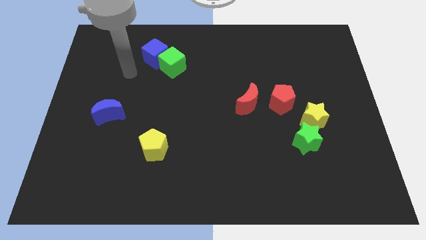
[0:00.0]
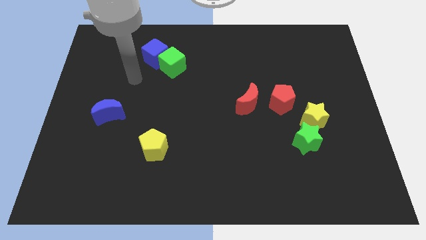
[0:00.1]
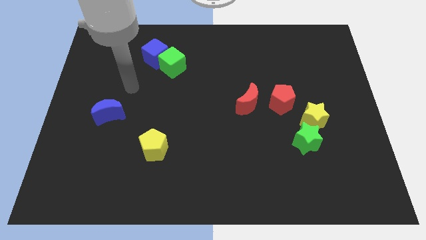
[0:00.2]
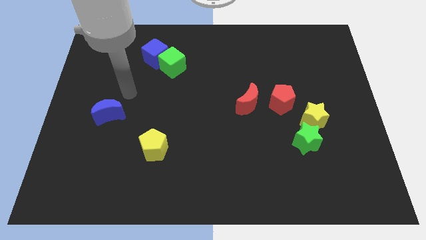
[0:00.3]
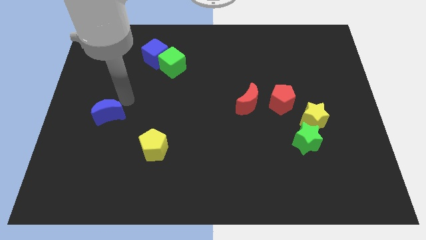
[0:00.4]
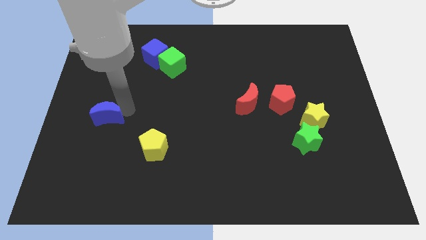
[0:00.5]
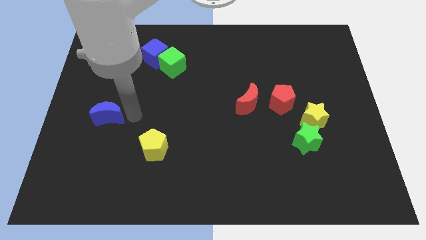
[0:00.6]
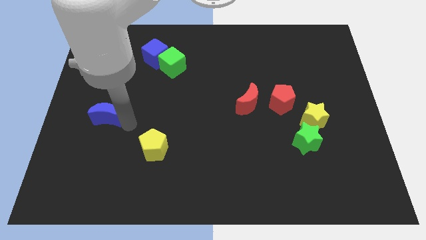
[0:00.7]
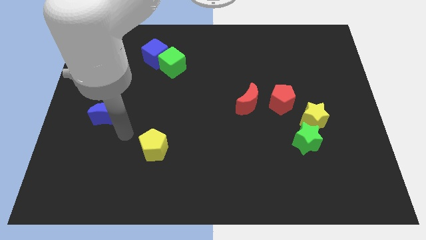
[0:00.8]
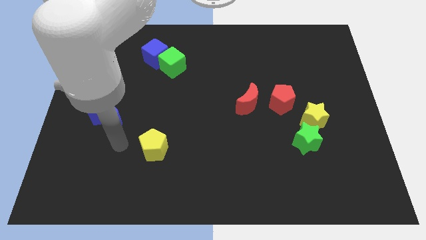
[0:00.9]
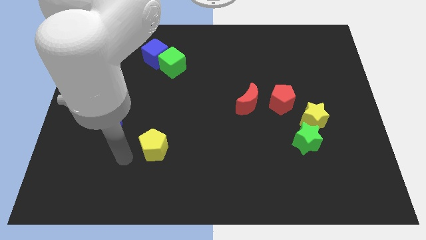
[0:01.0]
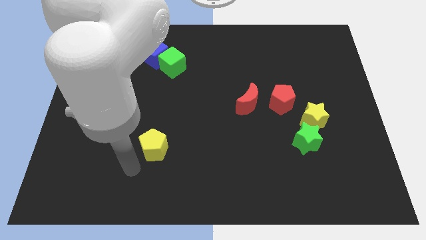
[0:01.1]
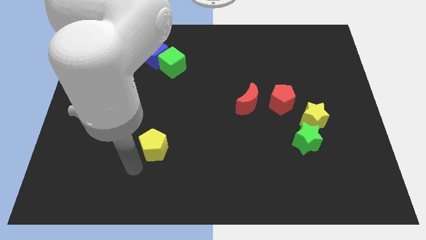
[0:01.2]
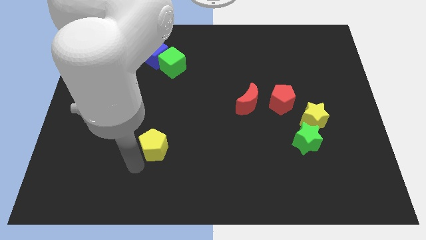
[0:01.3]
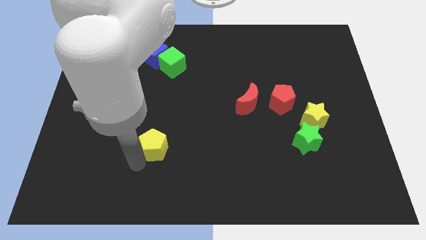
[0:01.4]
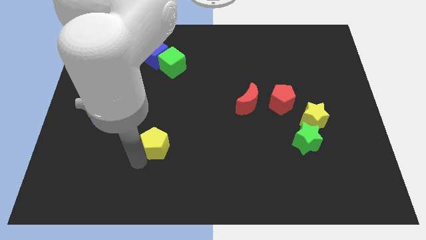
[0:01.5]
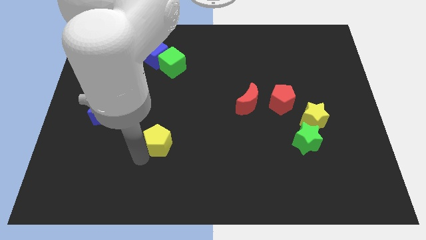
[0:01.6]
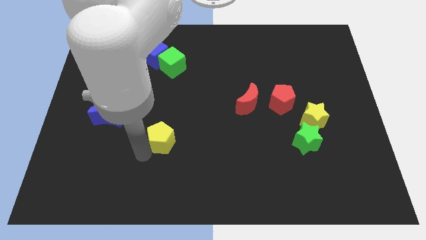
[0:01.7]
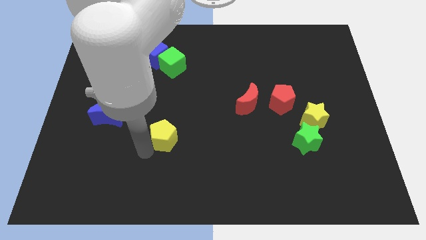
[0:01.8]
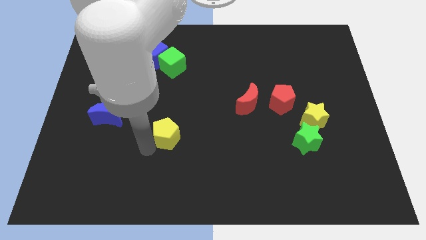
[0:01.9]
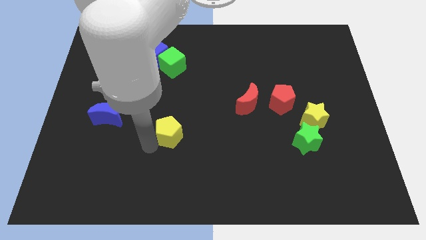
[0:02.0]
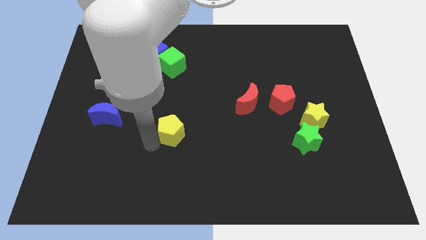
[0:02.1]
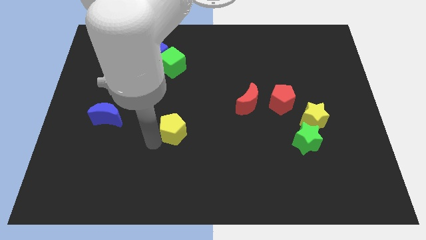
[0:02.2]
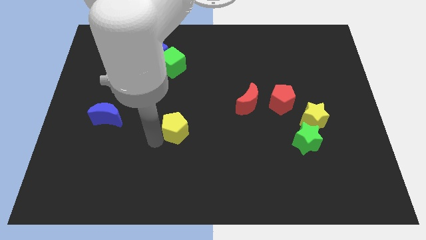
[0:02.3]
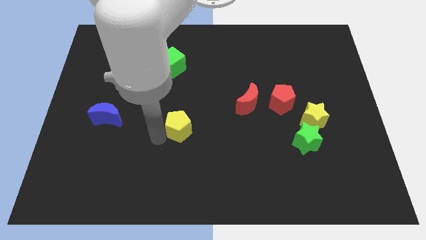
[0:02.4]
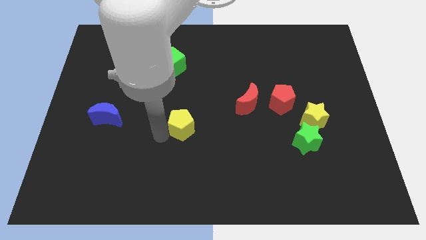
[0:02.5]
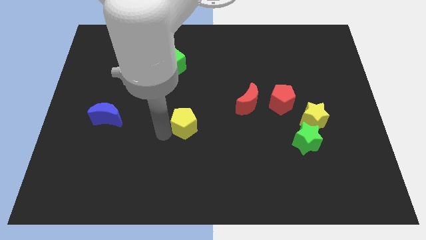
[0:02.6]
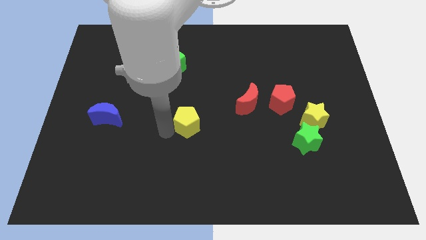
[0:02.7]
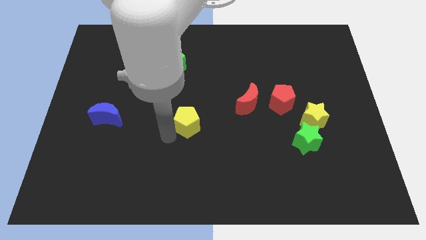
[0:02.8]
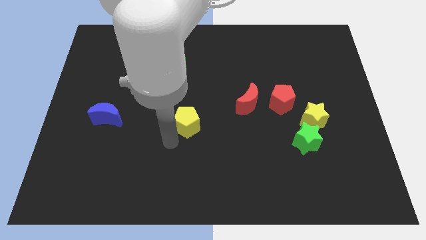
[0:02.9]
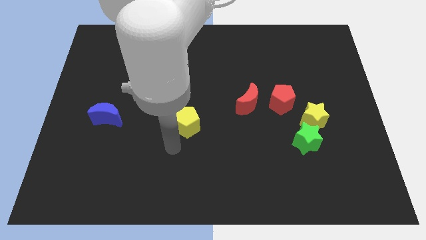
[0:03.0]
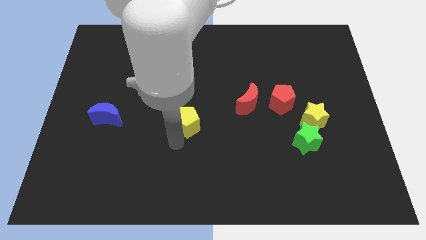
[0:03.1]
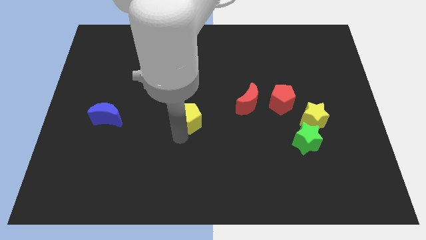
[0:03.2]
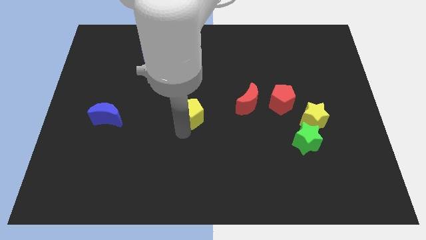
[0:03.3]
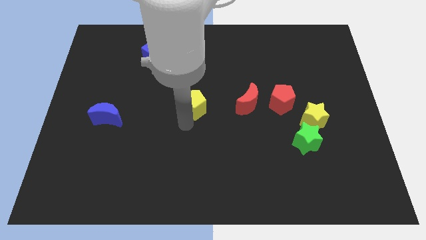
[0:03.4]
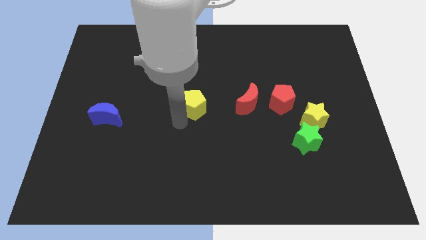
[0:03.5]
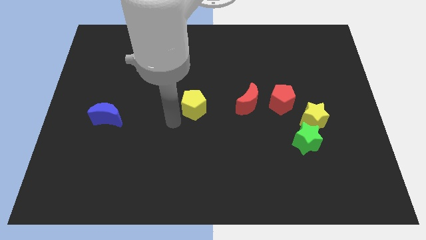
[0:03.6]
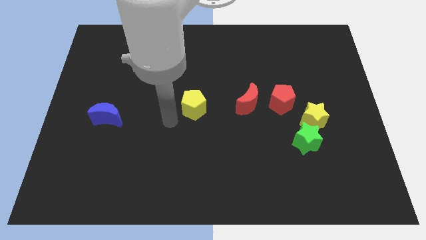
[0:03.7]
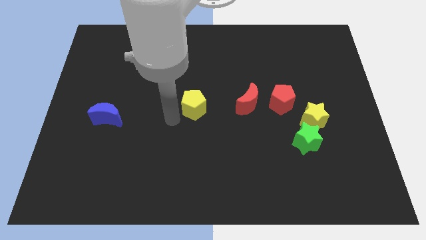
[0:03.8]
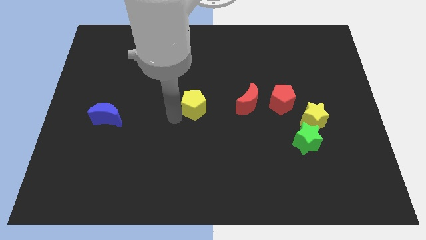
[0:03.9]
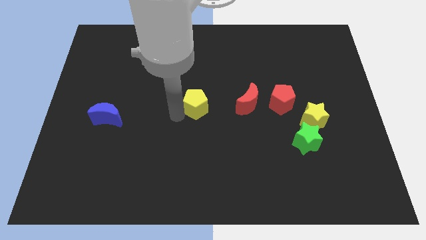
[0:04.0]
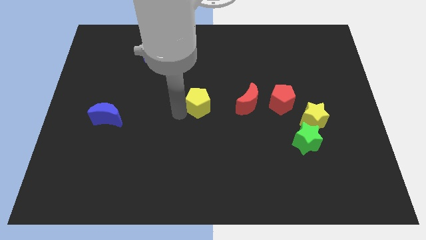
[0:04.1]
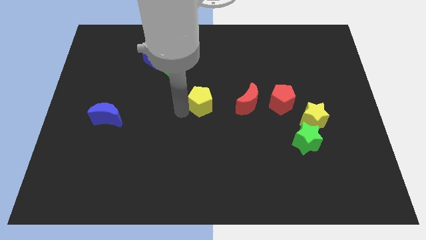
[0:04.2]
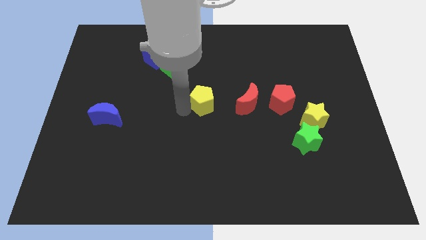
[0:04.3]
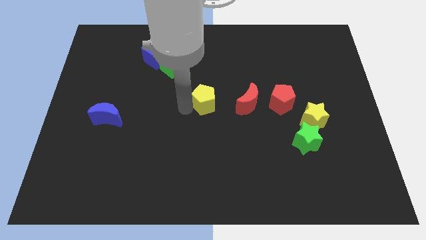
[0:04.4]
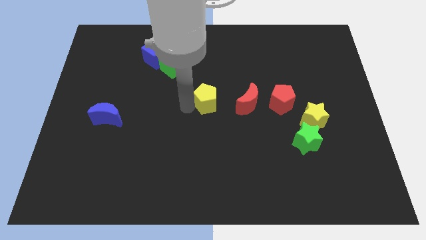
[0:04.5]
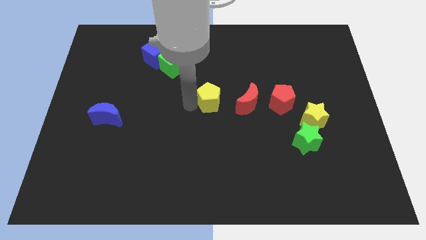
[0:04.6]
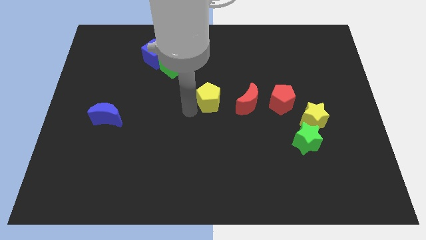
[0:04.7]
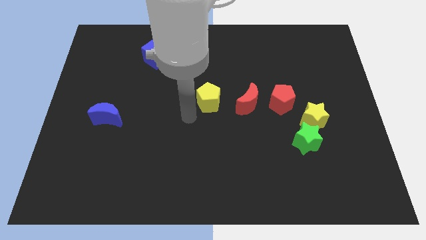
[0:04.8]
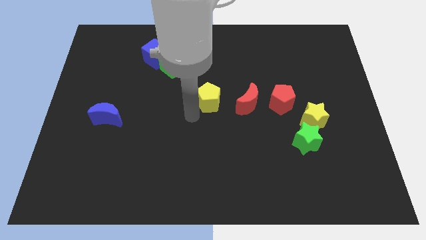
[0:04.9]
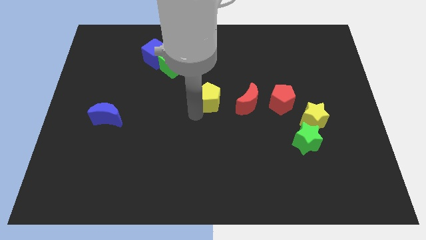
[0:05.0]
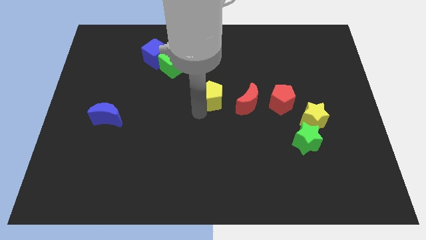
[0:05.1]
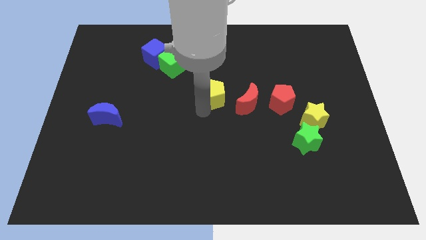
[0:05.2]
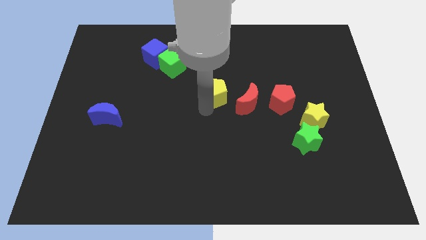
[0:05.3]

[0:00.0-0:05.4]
slide the yellow pentagon diagonally up and to the right

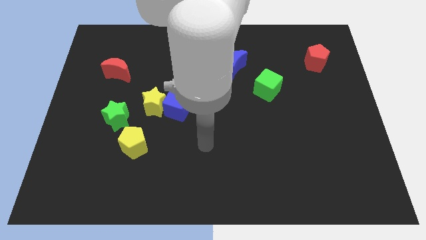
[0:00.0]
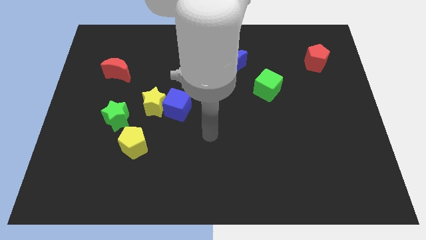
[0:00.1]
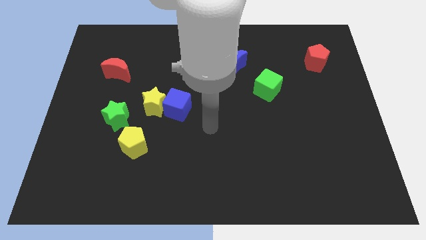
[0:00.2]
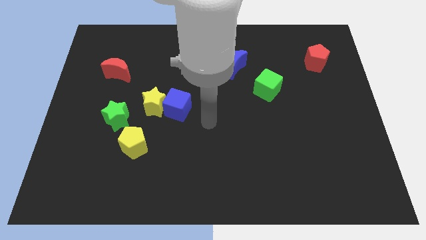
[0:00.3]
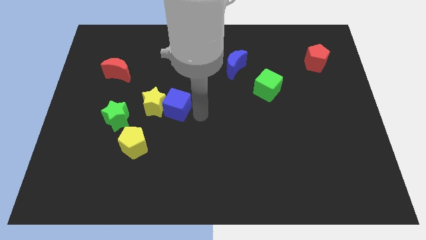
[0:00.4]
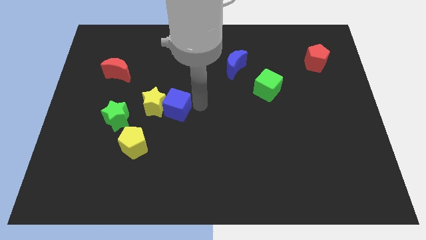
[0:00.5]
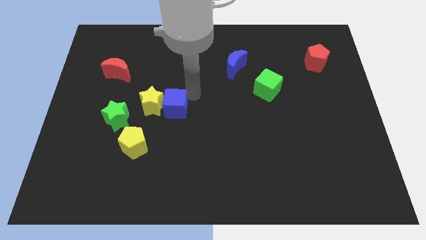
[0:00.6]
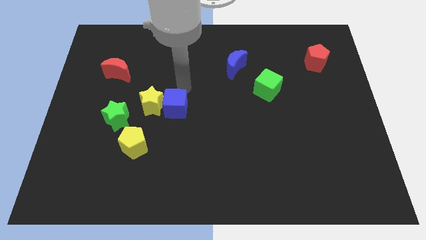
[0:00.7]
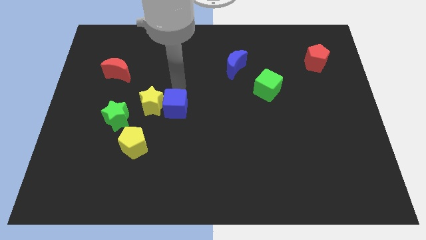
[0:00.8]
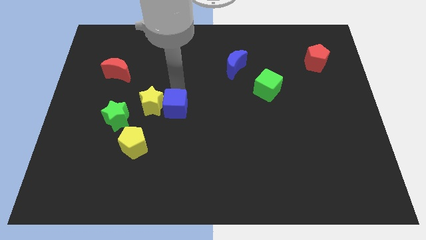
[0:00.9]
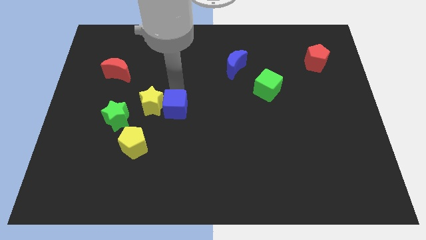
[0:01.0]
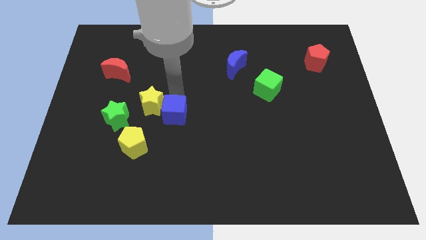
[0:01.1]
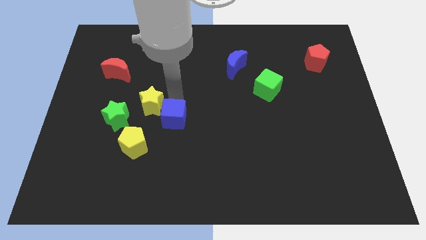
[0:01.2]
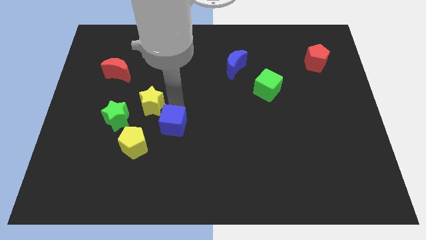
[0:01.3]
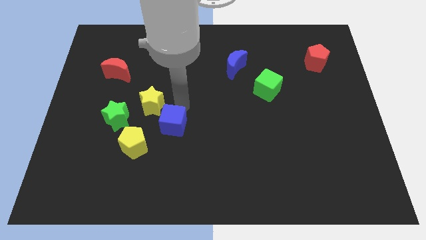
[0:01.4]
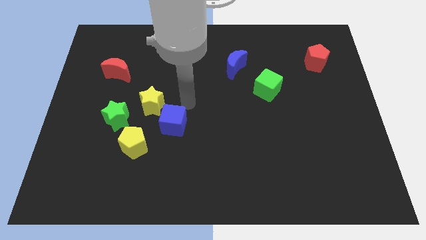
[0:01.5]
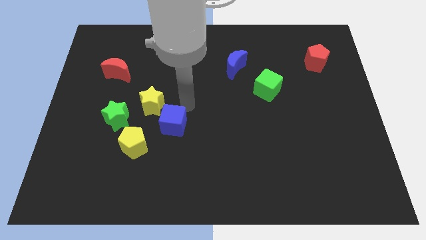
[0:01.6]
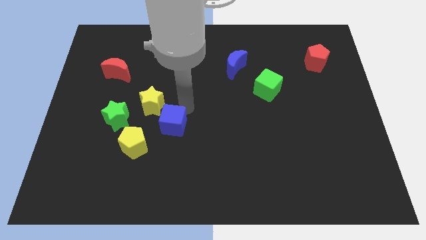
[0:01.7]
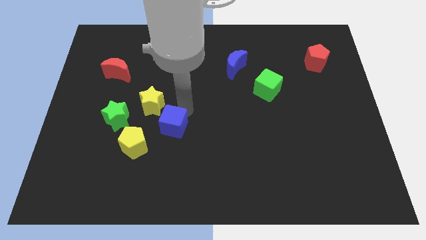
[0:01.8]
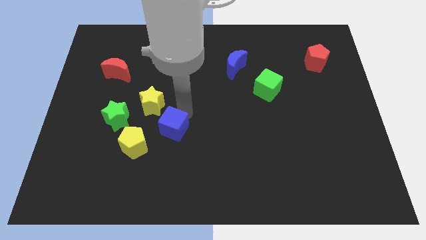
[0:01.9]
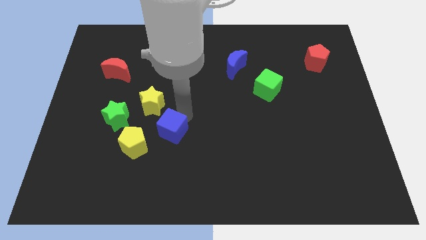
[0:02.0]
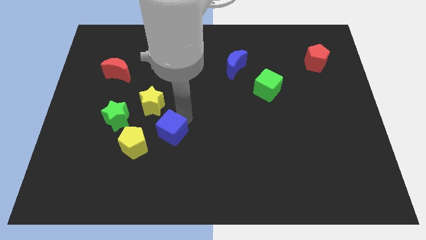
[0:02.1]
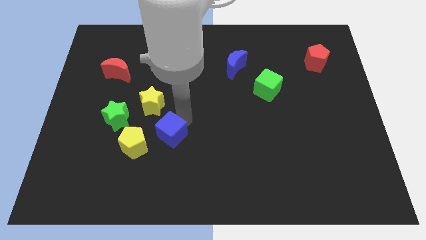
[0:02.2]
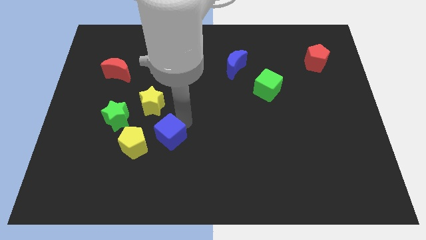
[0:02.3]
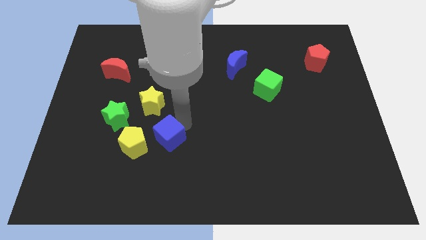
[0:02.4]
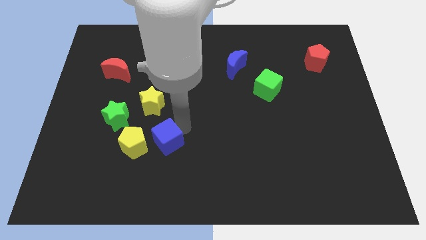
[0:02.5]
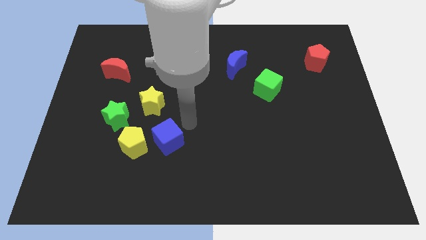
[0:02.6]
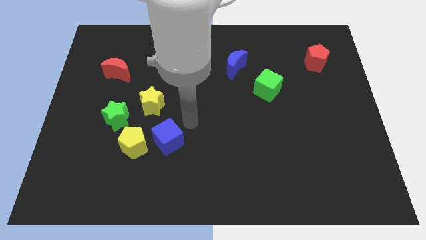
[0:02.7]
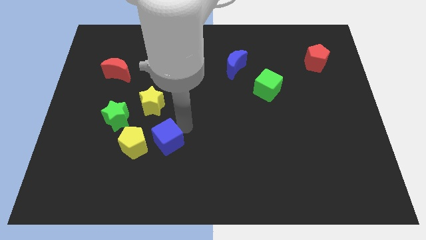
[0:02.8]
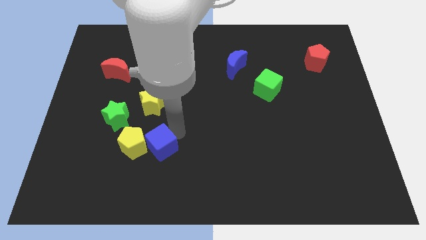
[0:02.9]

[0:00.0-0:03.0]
move the blue cube downwards and to the left a bit

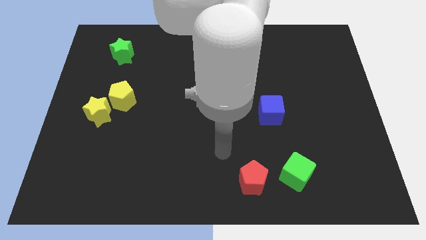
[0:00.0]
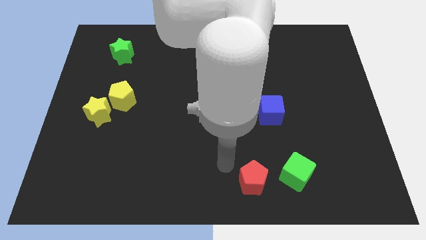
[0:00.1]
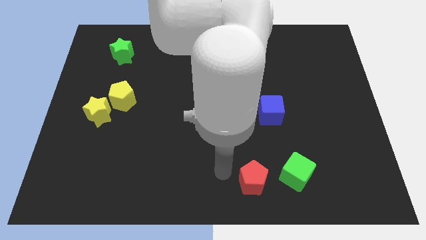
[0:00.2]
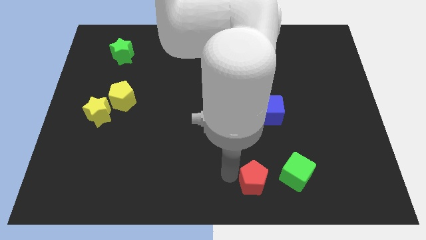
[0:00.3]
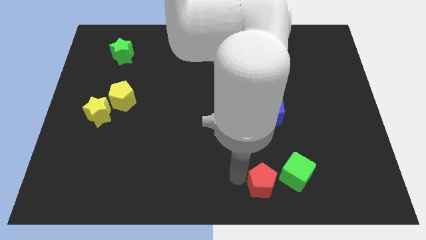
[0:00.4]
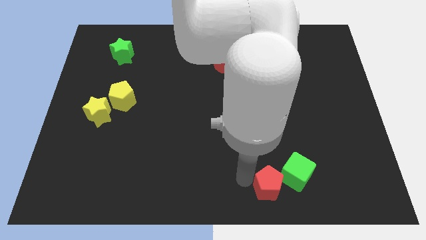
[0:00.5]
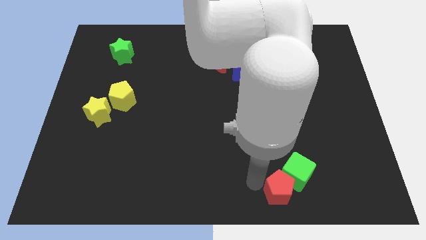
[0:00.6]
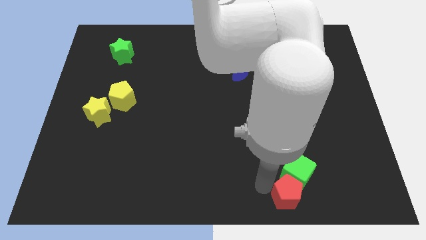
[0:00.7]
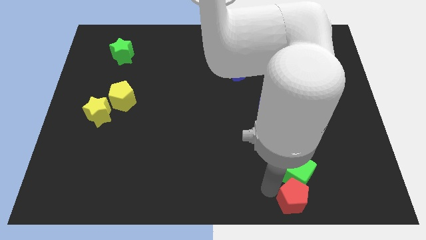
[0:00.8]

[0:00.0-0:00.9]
move the red pentagon to the right somewhat
